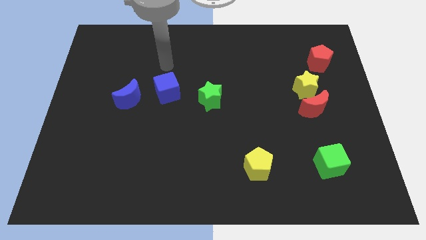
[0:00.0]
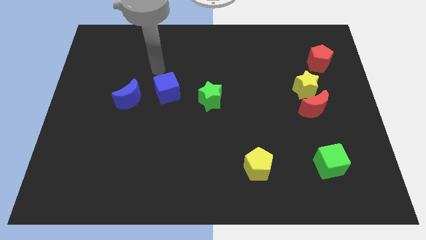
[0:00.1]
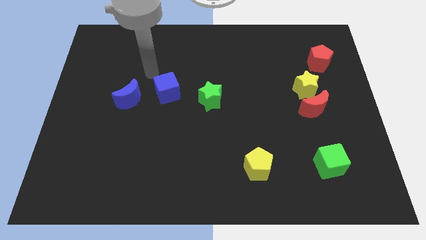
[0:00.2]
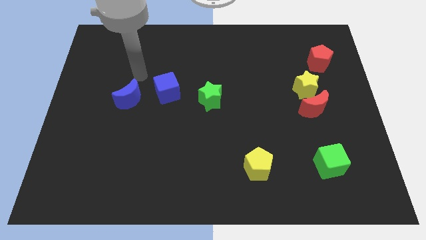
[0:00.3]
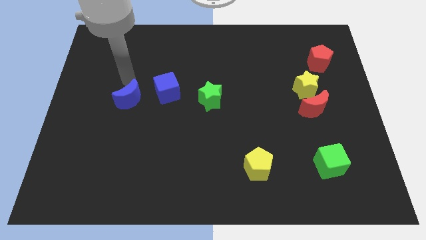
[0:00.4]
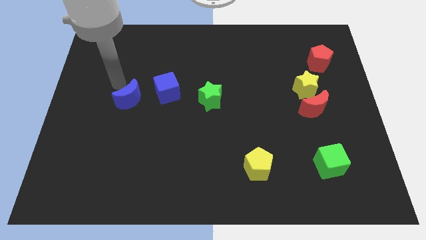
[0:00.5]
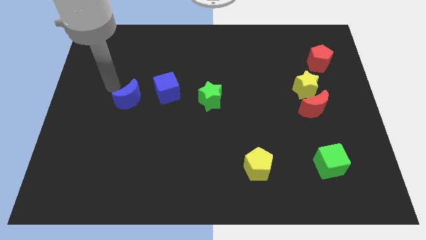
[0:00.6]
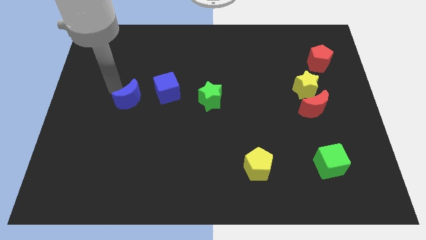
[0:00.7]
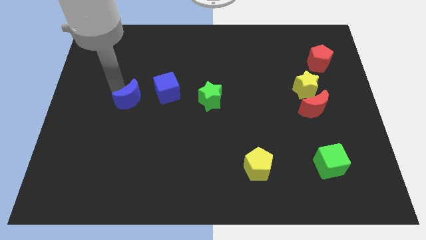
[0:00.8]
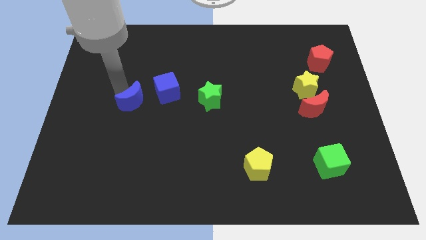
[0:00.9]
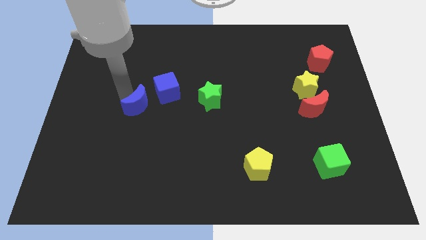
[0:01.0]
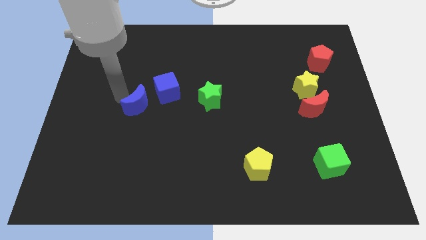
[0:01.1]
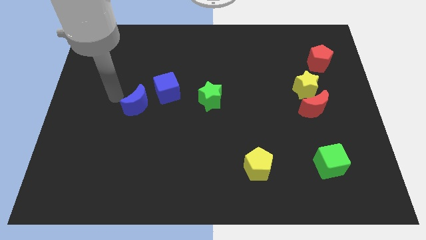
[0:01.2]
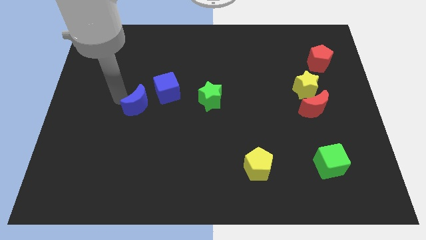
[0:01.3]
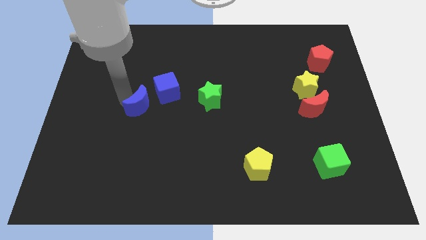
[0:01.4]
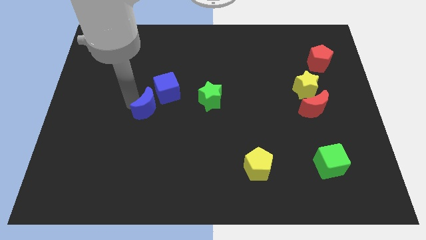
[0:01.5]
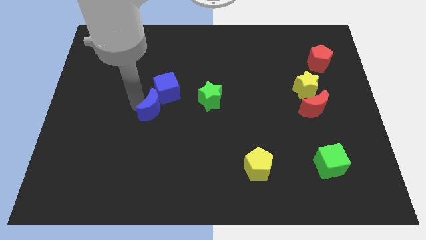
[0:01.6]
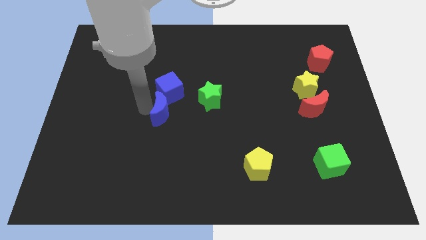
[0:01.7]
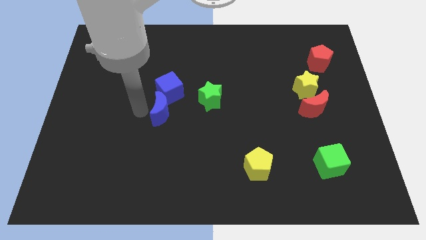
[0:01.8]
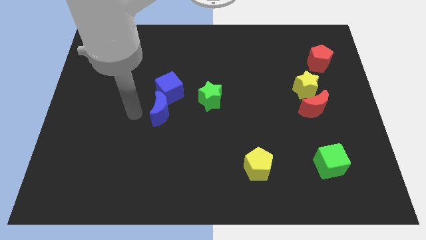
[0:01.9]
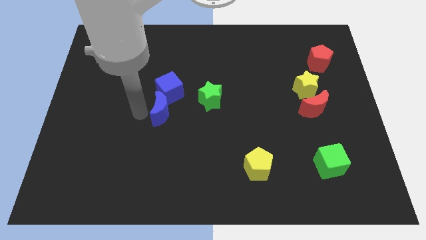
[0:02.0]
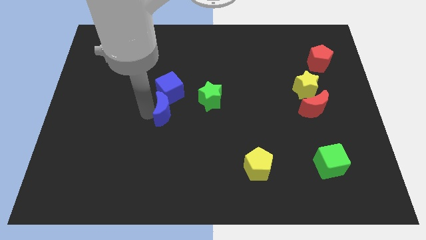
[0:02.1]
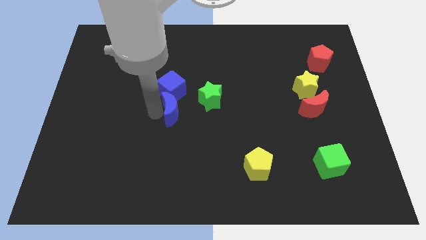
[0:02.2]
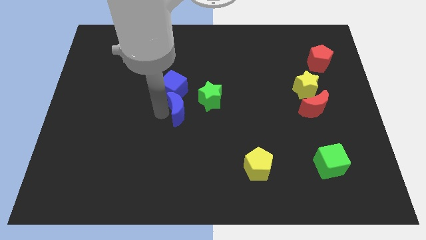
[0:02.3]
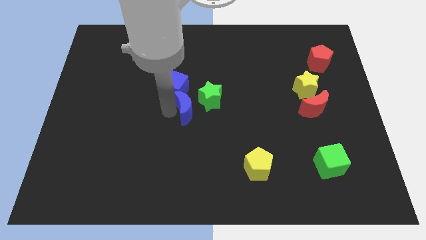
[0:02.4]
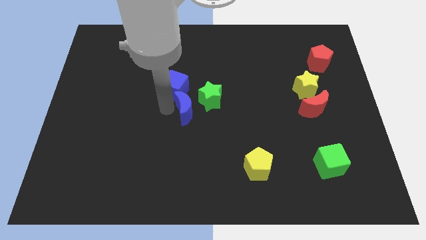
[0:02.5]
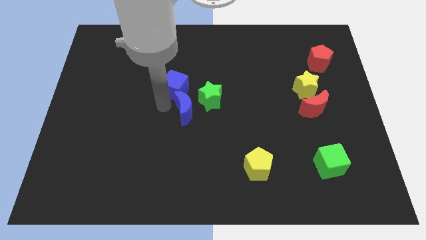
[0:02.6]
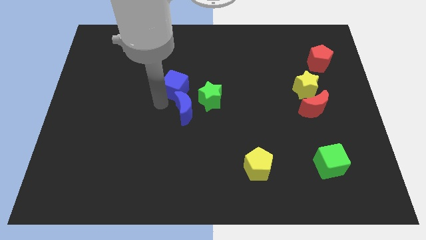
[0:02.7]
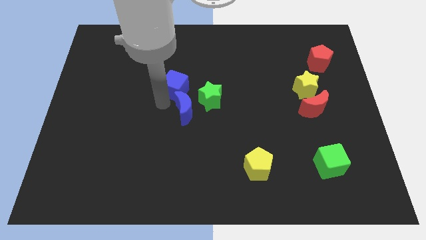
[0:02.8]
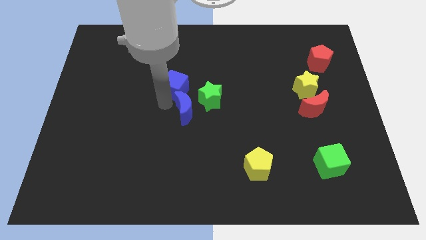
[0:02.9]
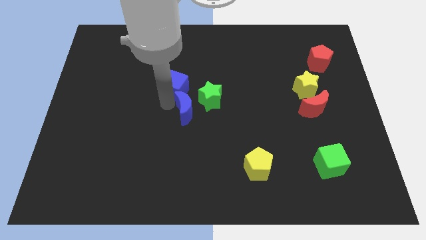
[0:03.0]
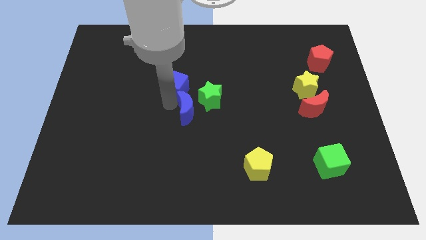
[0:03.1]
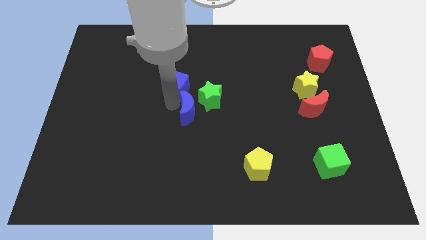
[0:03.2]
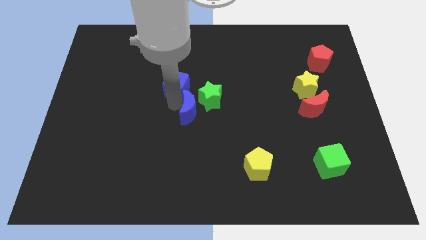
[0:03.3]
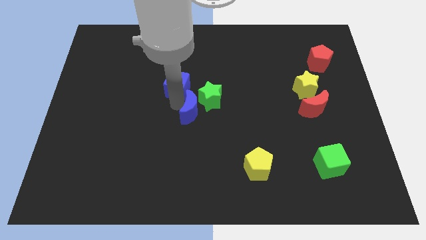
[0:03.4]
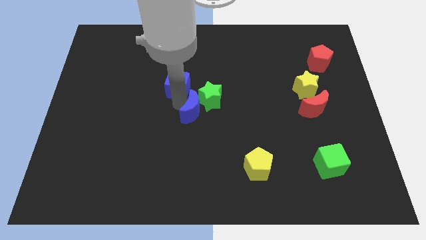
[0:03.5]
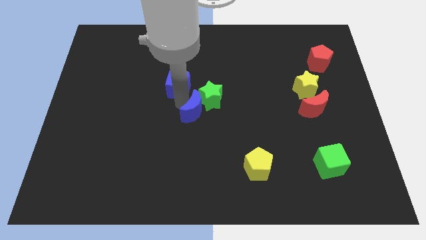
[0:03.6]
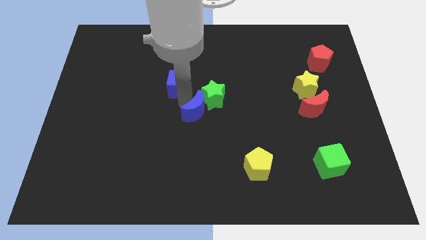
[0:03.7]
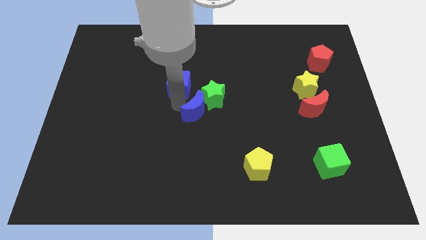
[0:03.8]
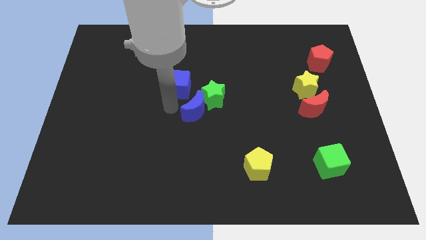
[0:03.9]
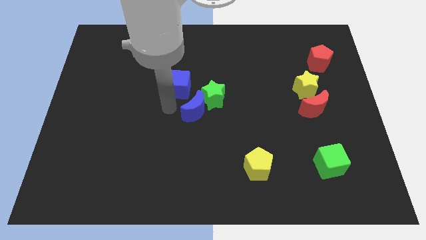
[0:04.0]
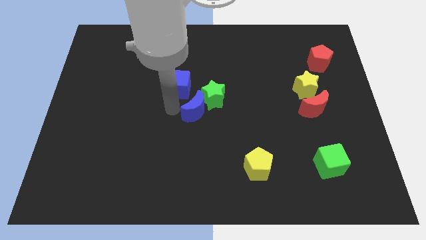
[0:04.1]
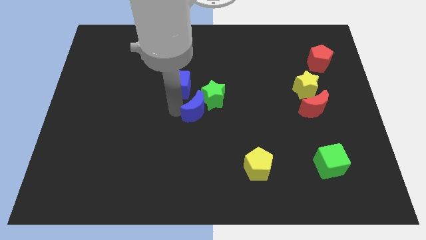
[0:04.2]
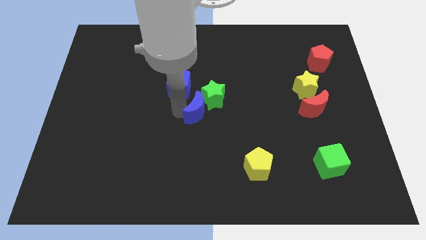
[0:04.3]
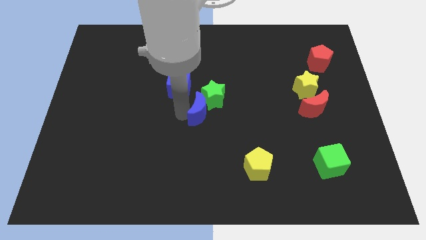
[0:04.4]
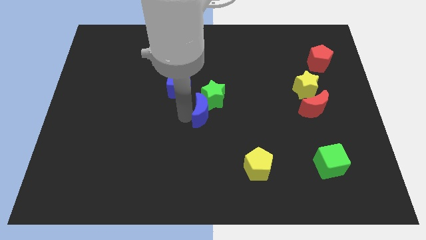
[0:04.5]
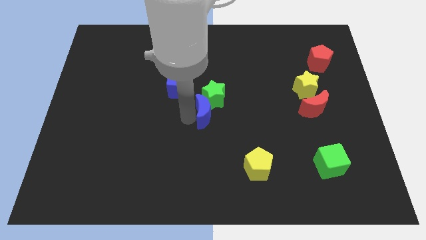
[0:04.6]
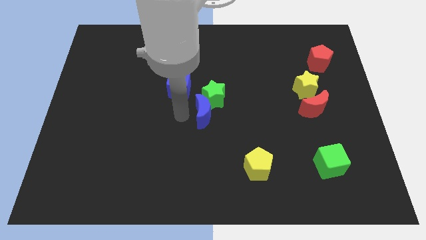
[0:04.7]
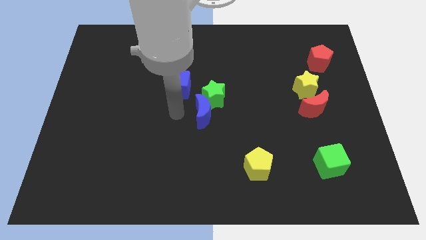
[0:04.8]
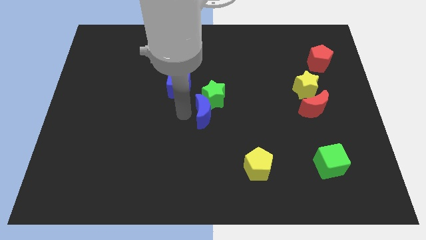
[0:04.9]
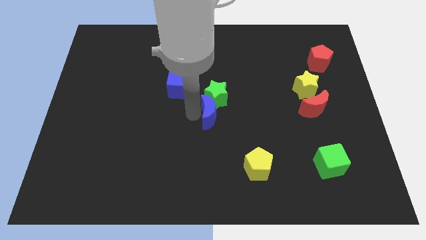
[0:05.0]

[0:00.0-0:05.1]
slide the blue moon to the bottom right side of the green star

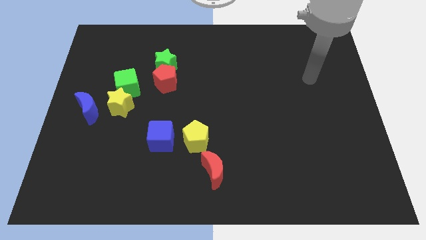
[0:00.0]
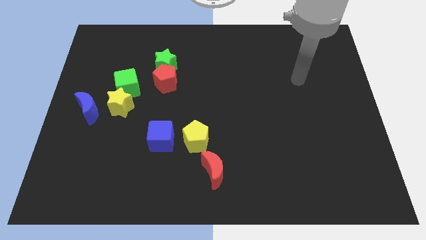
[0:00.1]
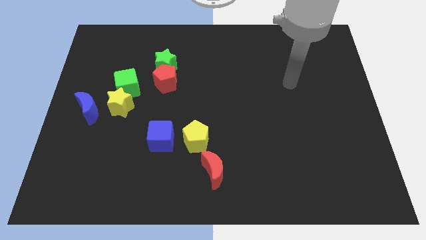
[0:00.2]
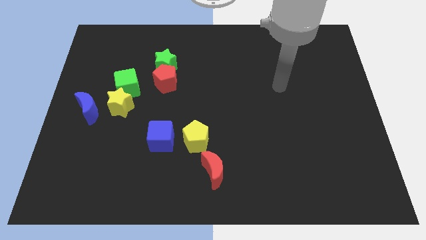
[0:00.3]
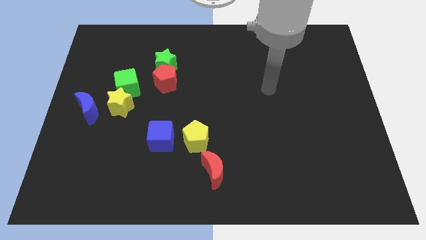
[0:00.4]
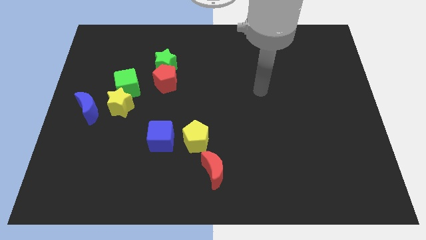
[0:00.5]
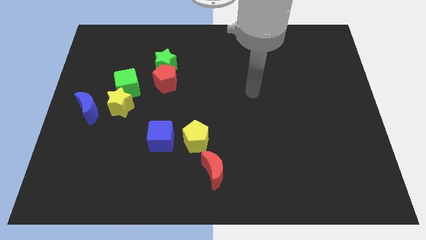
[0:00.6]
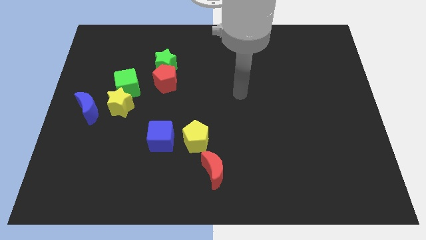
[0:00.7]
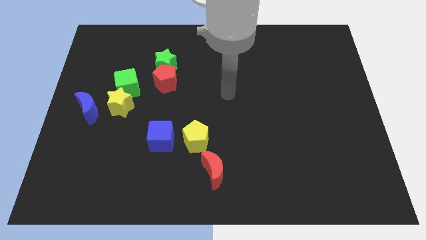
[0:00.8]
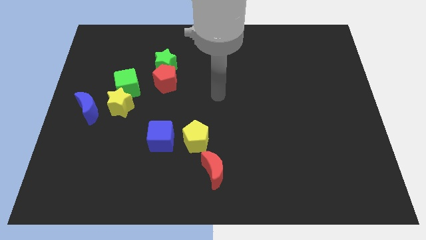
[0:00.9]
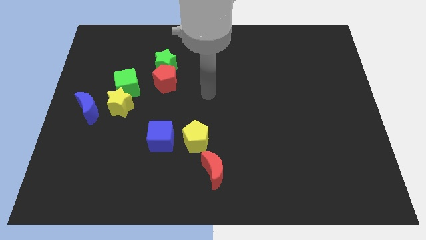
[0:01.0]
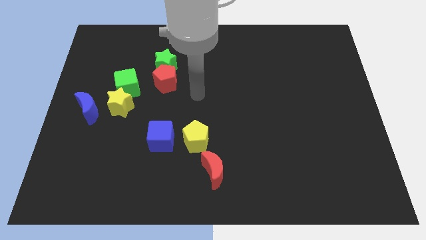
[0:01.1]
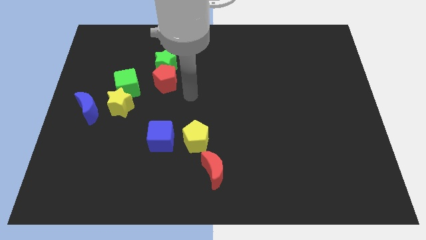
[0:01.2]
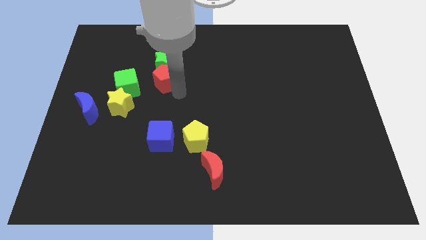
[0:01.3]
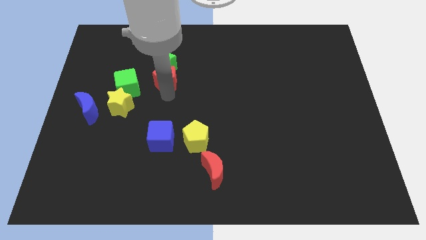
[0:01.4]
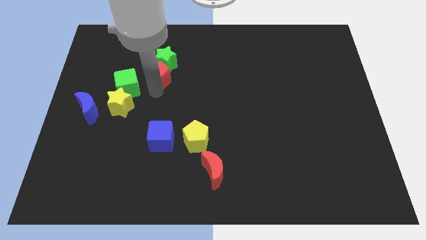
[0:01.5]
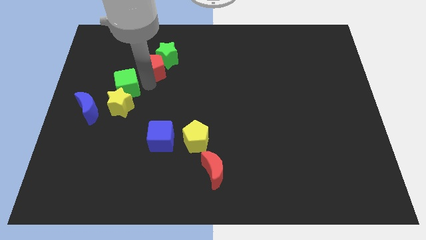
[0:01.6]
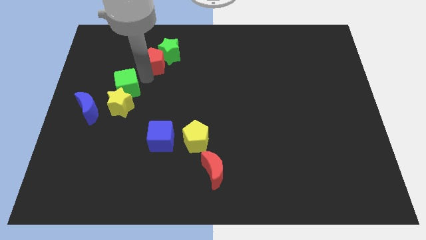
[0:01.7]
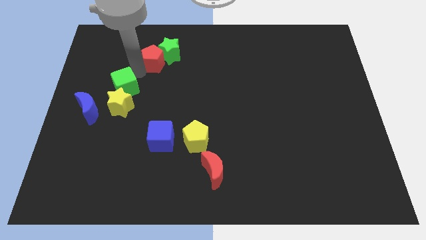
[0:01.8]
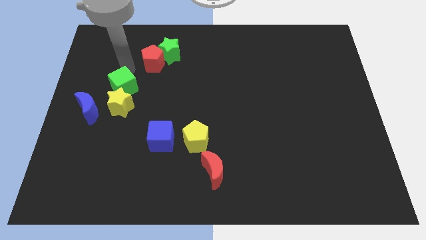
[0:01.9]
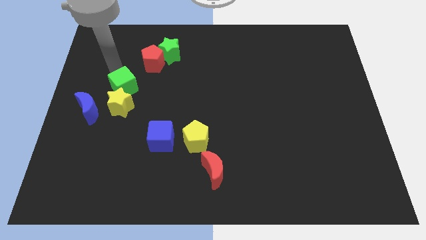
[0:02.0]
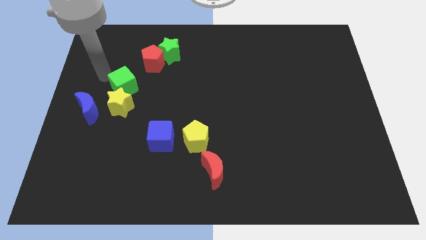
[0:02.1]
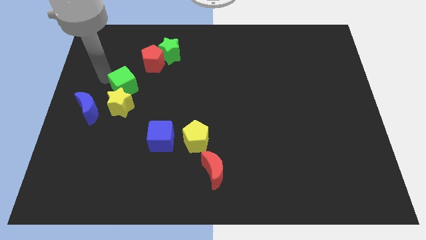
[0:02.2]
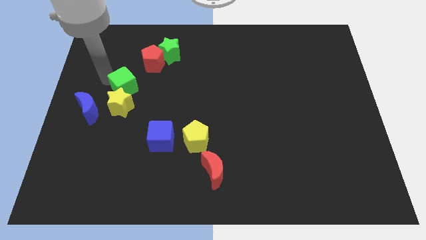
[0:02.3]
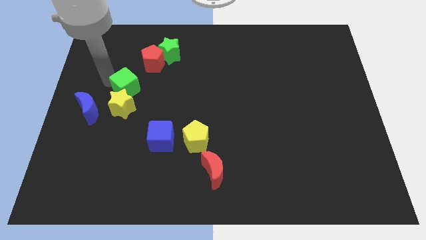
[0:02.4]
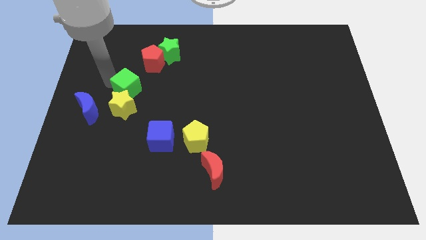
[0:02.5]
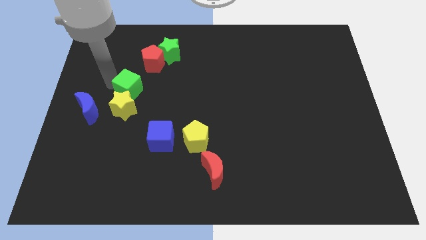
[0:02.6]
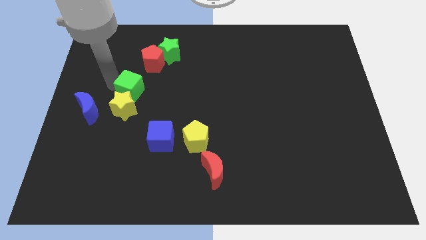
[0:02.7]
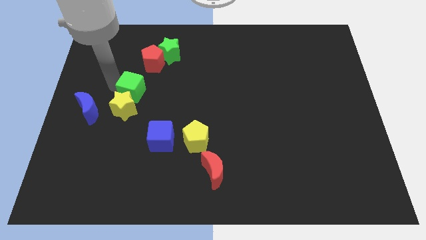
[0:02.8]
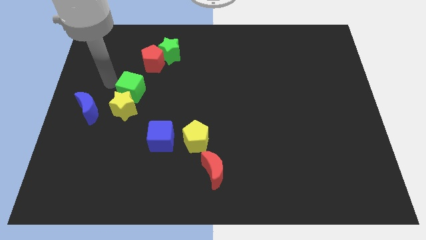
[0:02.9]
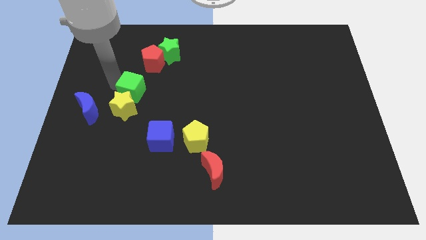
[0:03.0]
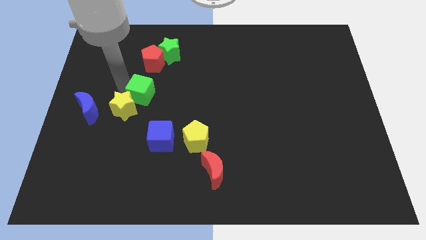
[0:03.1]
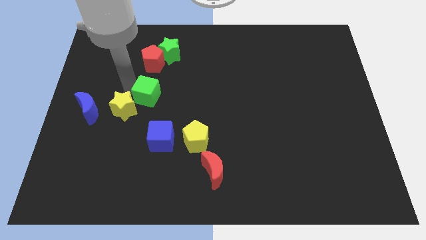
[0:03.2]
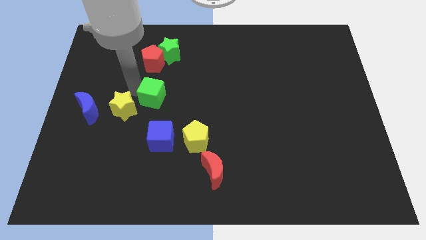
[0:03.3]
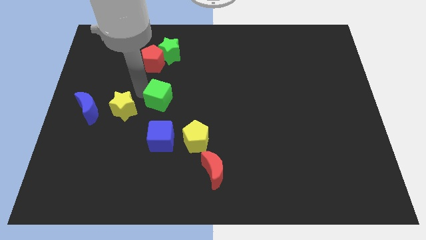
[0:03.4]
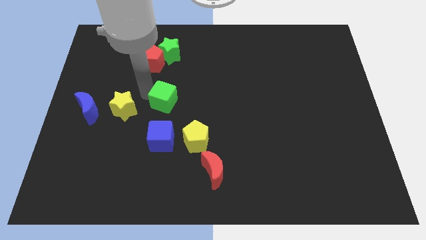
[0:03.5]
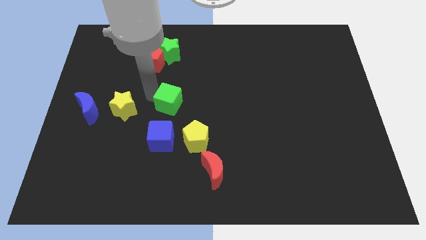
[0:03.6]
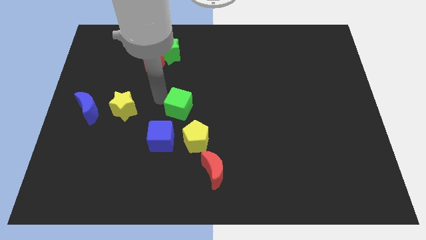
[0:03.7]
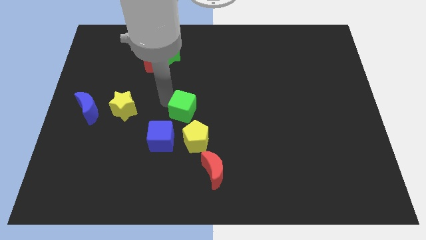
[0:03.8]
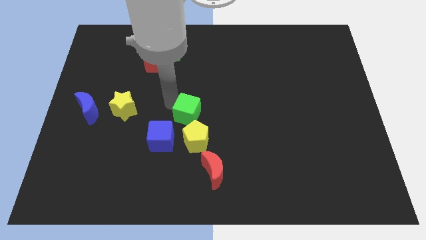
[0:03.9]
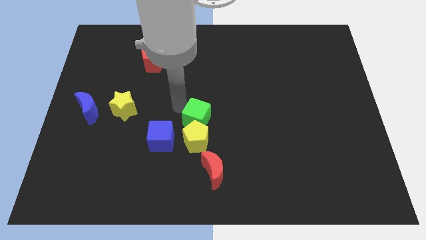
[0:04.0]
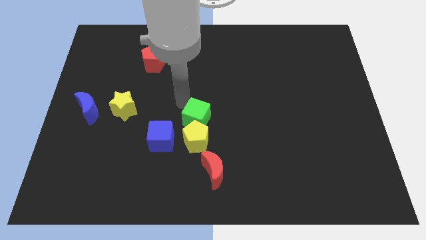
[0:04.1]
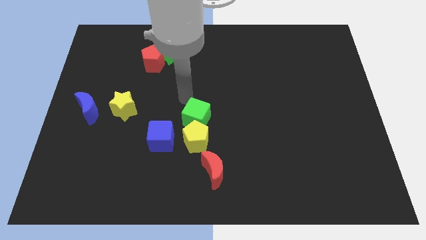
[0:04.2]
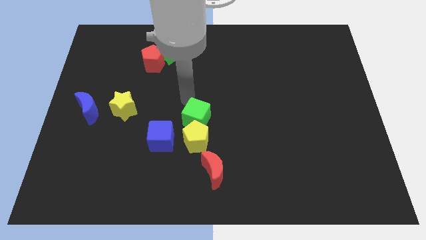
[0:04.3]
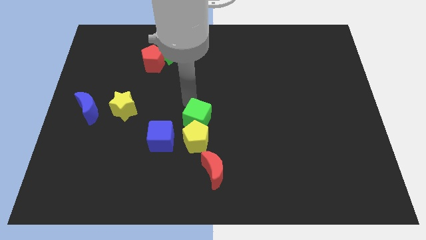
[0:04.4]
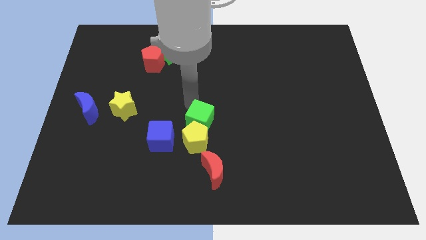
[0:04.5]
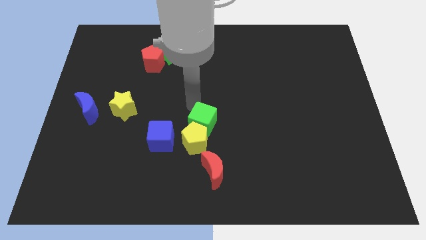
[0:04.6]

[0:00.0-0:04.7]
slide the green cube to the right of the blue cube
